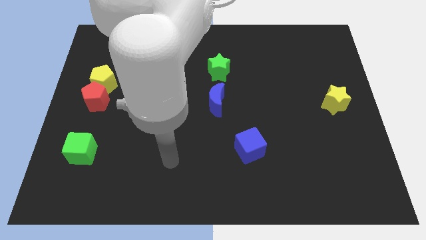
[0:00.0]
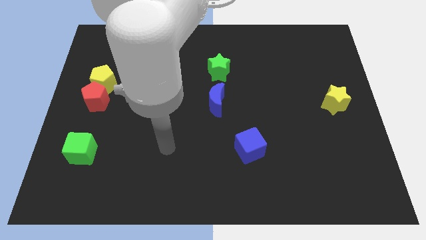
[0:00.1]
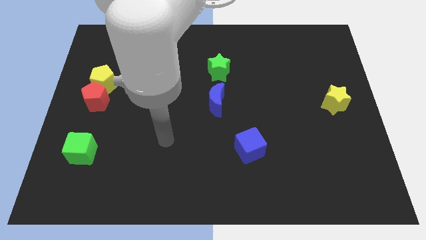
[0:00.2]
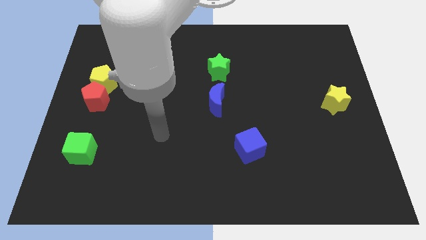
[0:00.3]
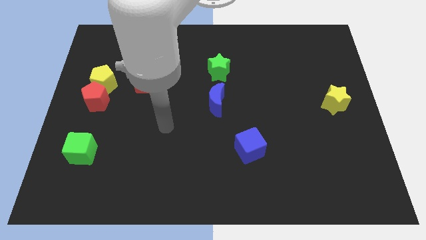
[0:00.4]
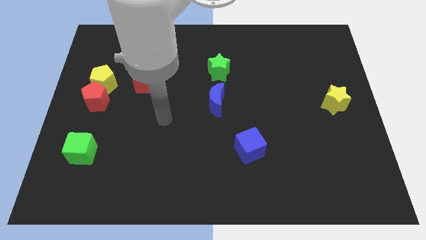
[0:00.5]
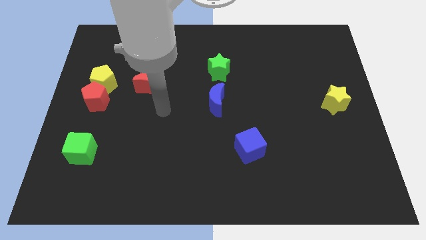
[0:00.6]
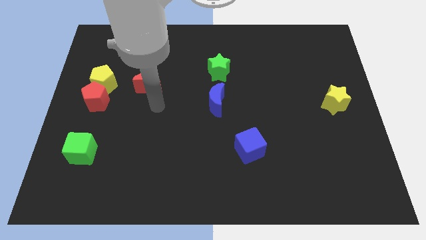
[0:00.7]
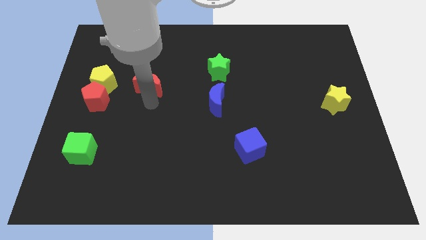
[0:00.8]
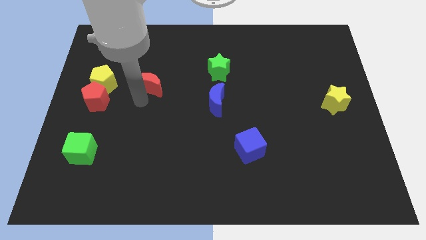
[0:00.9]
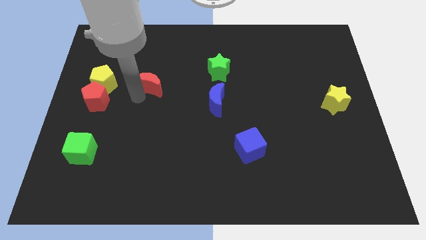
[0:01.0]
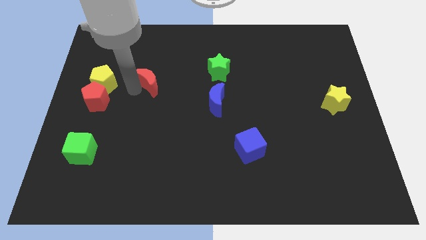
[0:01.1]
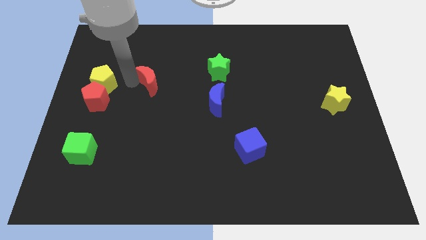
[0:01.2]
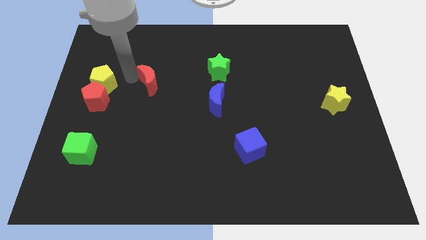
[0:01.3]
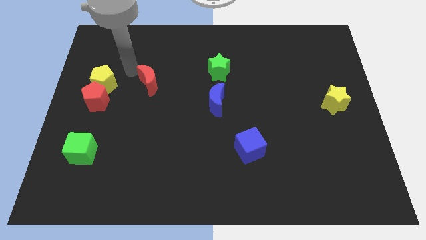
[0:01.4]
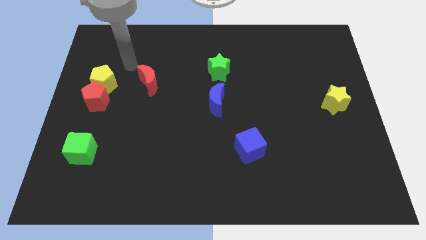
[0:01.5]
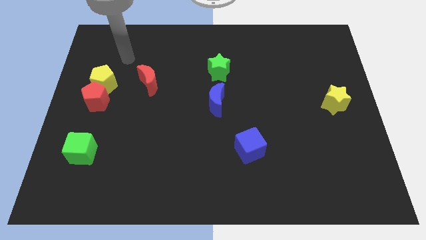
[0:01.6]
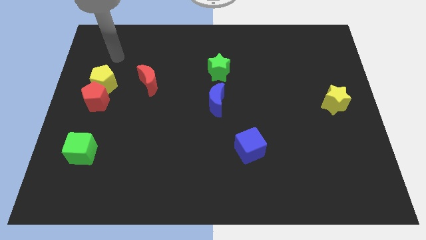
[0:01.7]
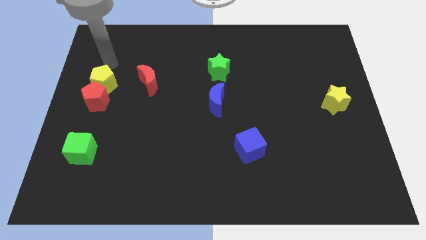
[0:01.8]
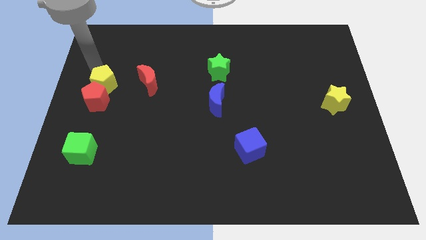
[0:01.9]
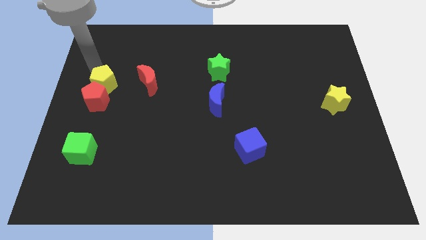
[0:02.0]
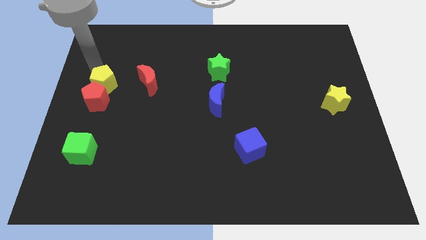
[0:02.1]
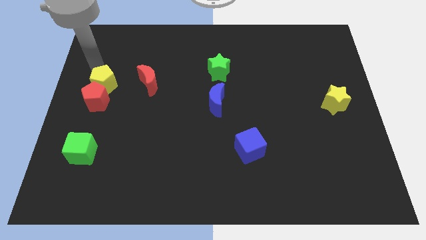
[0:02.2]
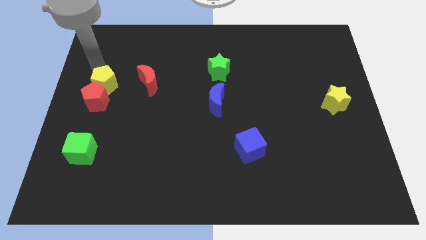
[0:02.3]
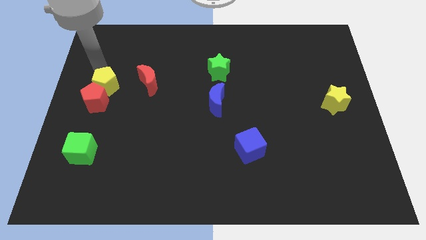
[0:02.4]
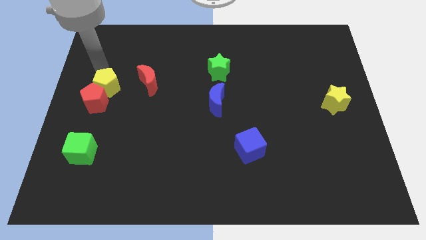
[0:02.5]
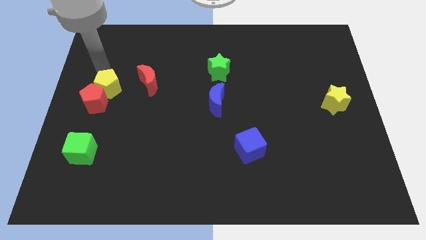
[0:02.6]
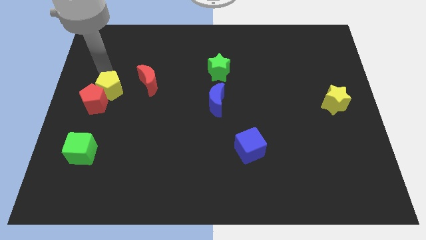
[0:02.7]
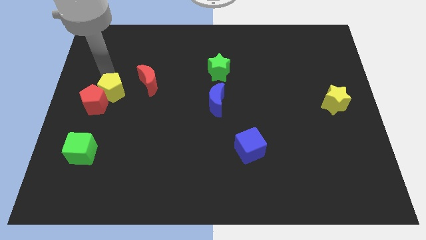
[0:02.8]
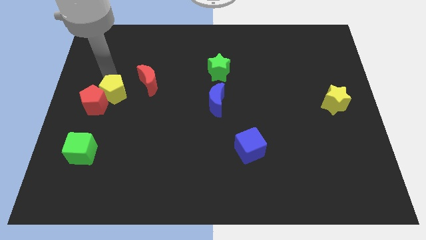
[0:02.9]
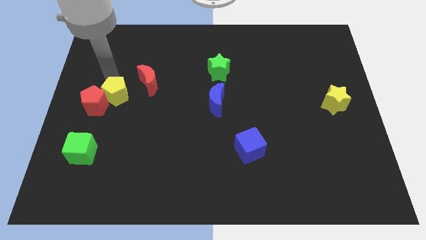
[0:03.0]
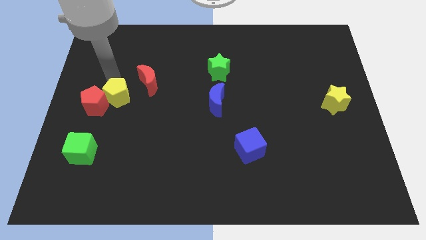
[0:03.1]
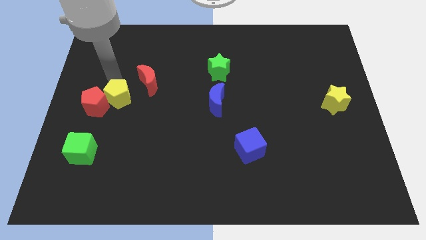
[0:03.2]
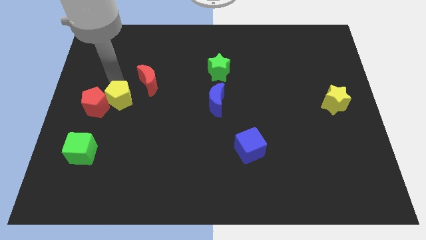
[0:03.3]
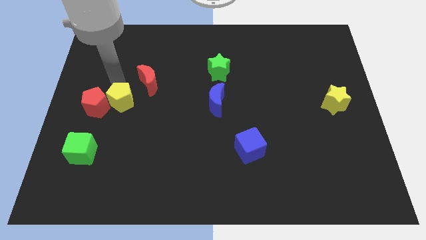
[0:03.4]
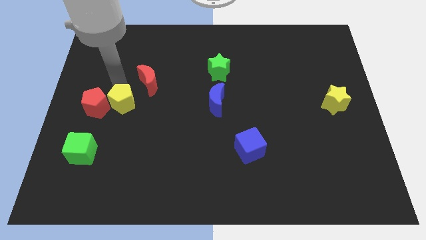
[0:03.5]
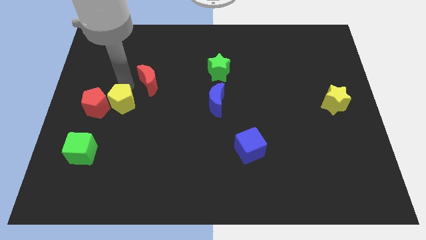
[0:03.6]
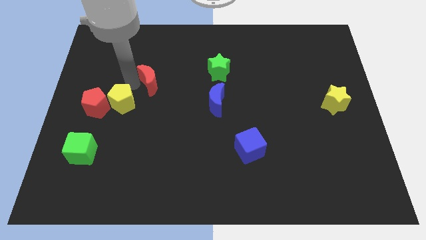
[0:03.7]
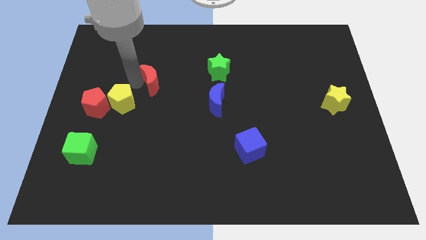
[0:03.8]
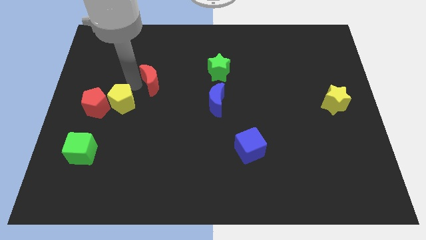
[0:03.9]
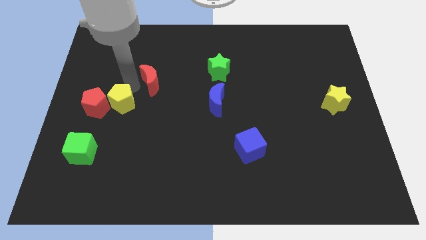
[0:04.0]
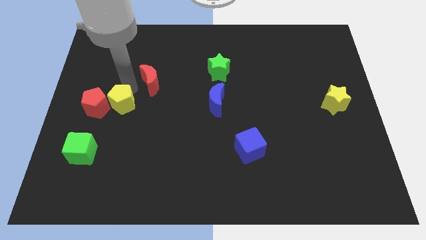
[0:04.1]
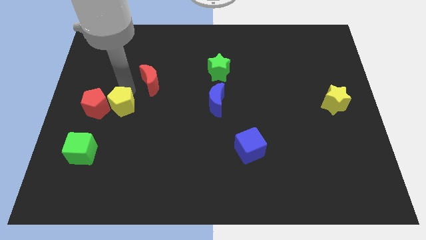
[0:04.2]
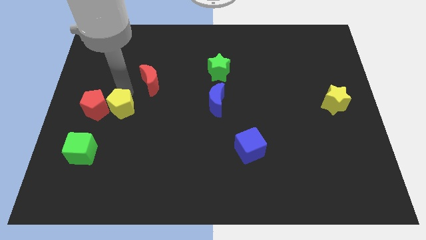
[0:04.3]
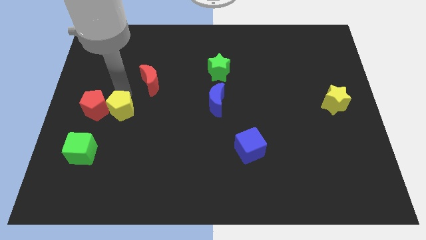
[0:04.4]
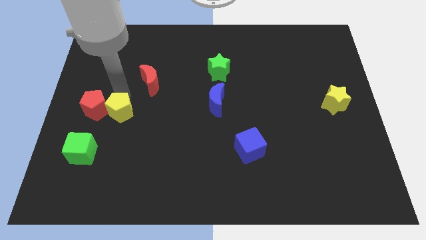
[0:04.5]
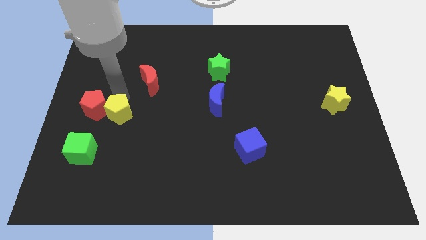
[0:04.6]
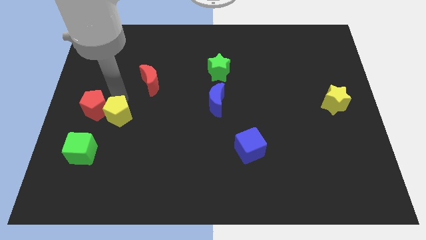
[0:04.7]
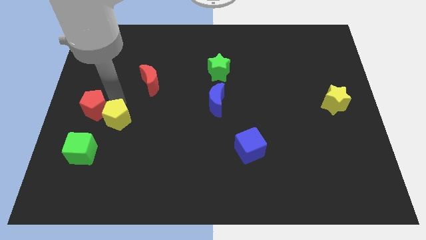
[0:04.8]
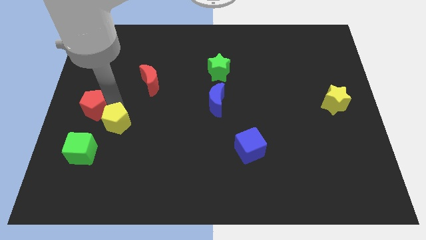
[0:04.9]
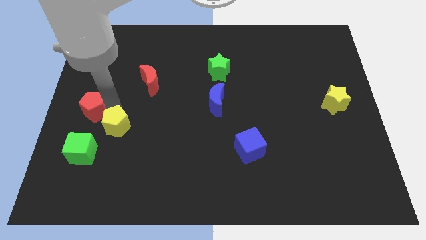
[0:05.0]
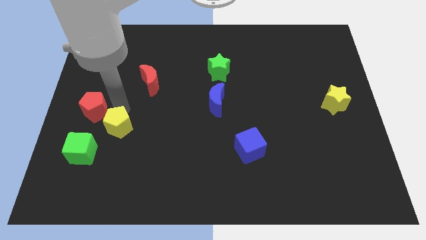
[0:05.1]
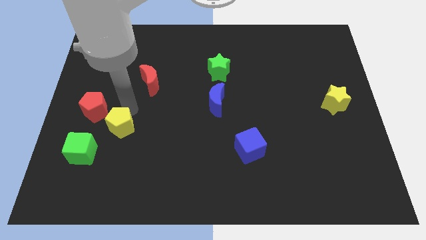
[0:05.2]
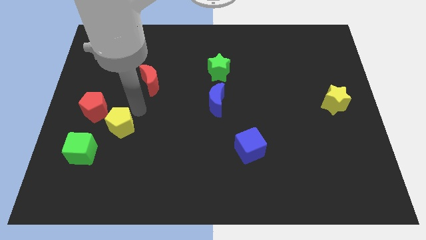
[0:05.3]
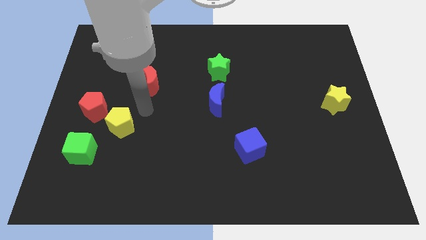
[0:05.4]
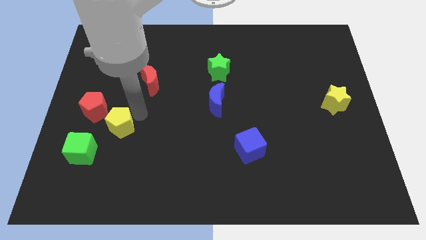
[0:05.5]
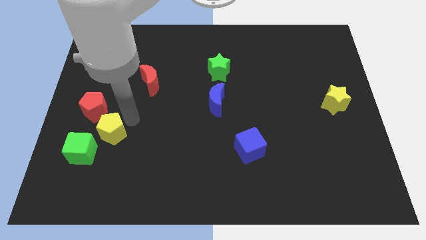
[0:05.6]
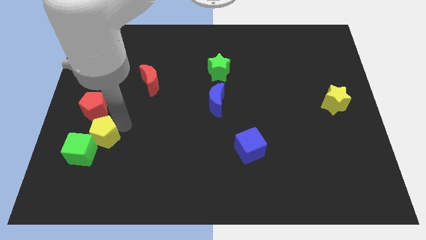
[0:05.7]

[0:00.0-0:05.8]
move the yellow pentagon next to the green cube
